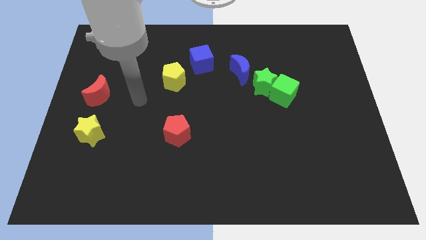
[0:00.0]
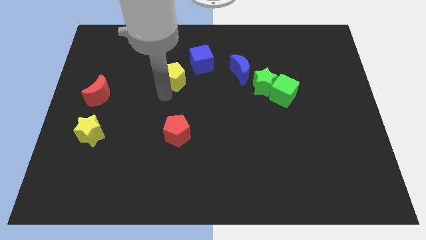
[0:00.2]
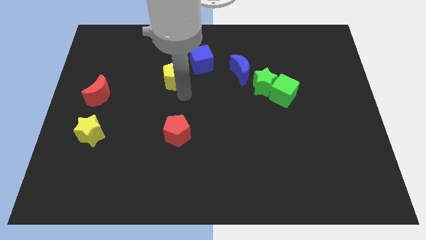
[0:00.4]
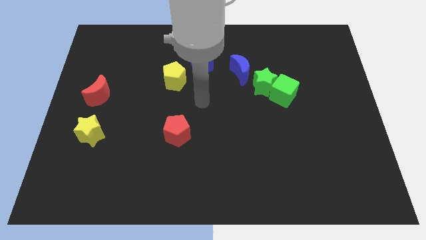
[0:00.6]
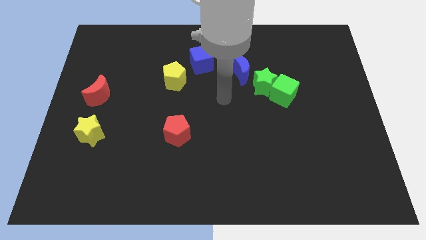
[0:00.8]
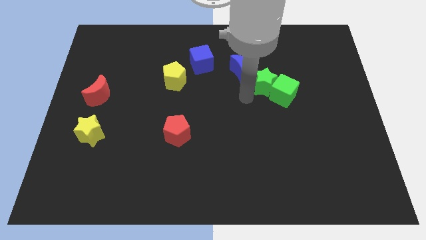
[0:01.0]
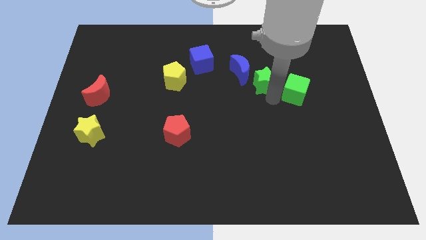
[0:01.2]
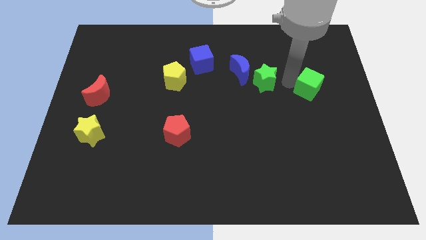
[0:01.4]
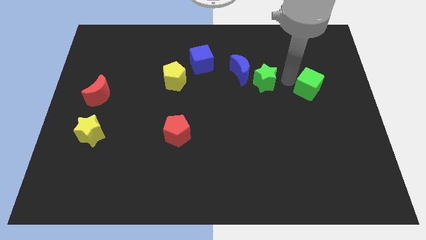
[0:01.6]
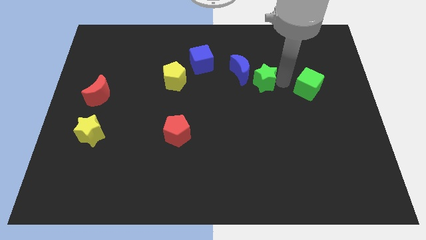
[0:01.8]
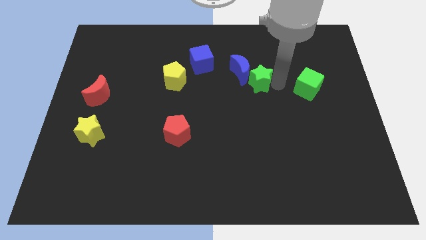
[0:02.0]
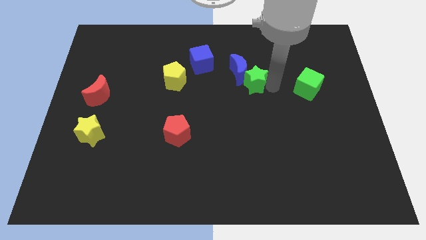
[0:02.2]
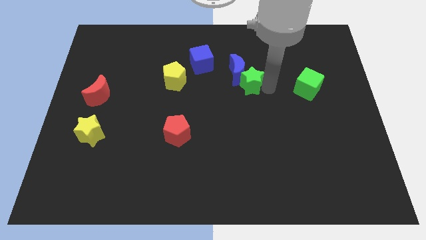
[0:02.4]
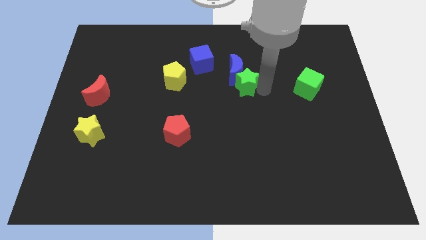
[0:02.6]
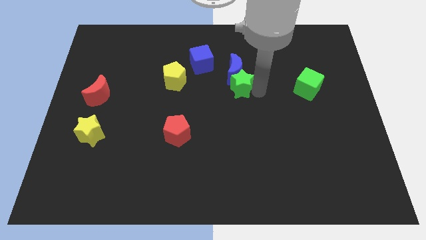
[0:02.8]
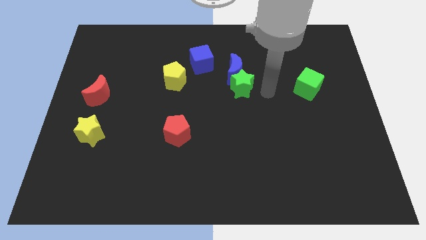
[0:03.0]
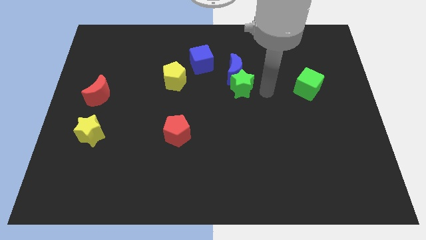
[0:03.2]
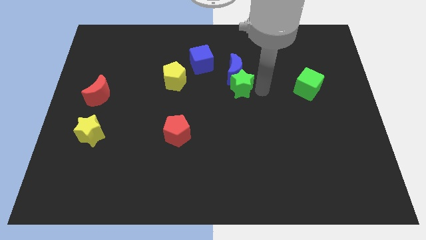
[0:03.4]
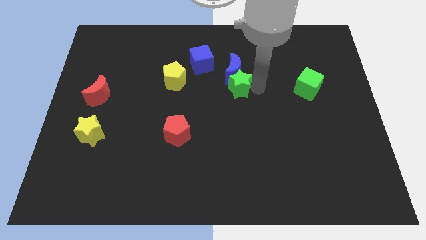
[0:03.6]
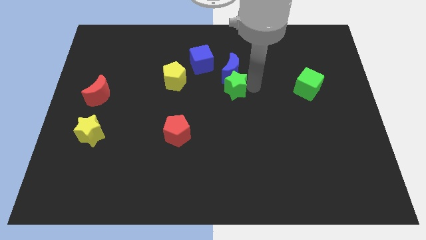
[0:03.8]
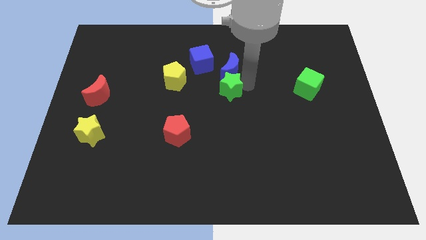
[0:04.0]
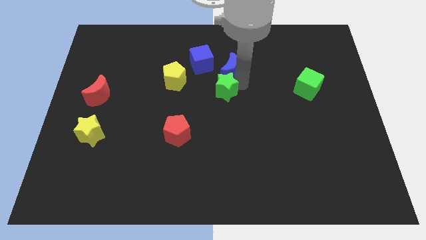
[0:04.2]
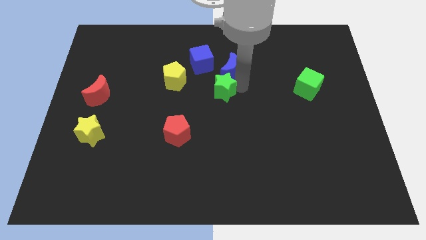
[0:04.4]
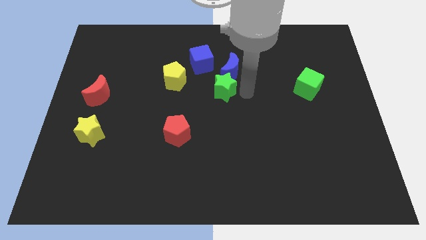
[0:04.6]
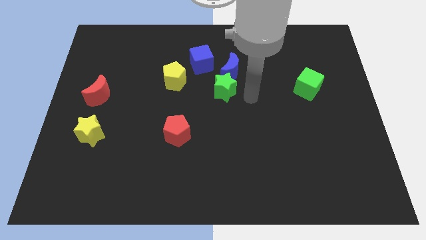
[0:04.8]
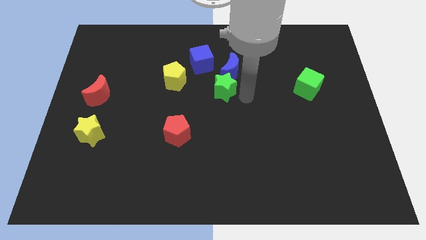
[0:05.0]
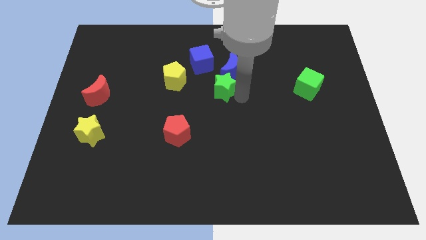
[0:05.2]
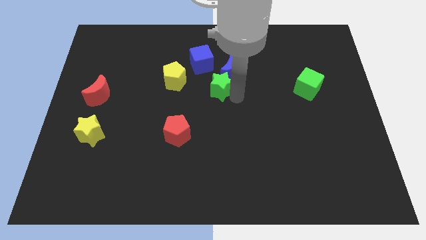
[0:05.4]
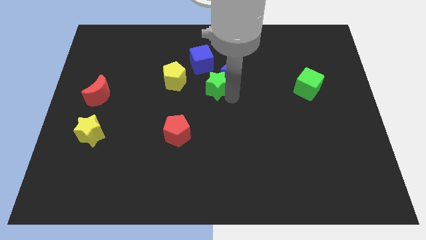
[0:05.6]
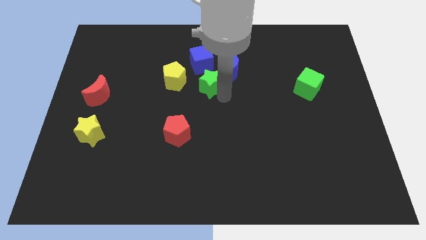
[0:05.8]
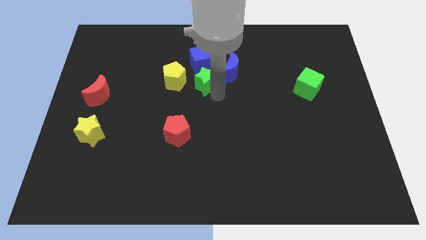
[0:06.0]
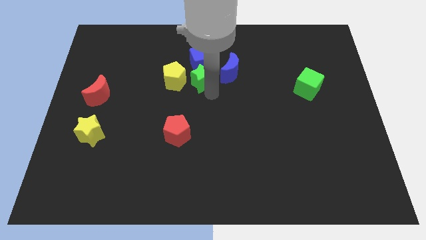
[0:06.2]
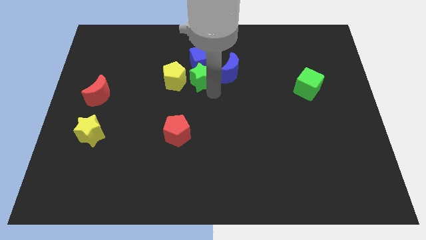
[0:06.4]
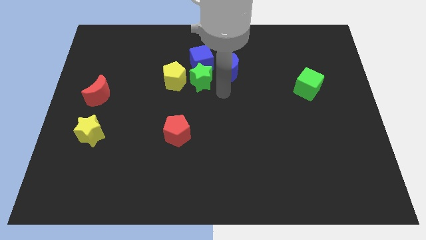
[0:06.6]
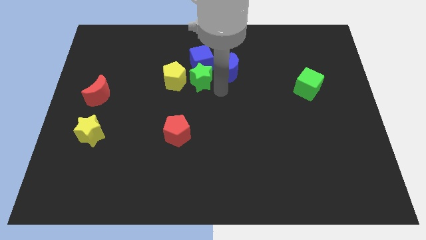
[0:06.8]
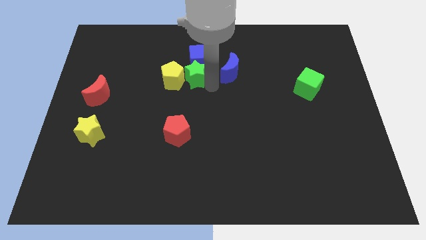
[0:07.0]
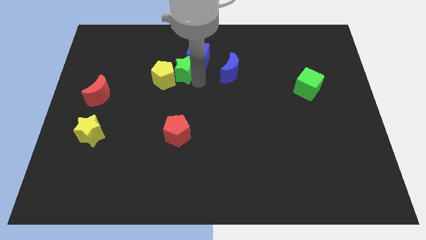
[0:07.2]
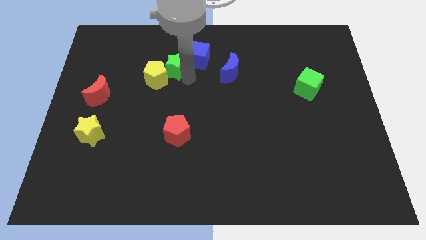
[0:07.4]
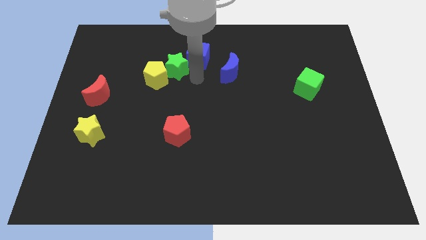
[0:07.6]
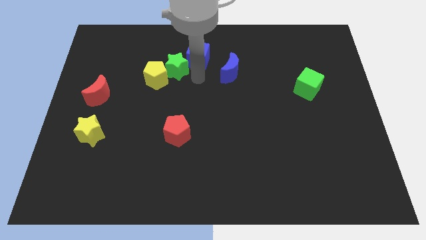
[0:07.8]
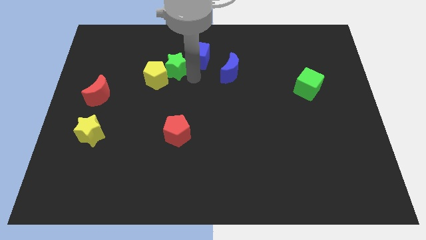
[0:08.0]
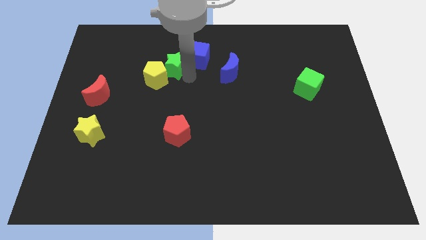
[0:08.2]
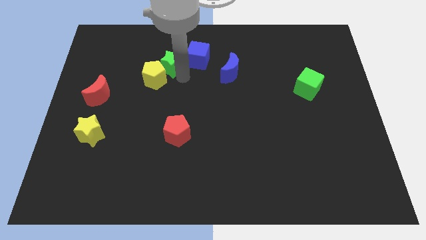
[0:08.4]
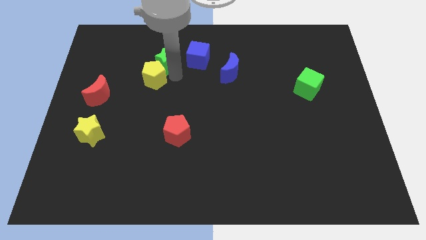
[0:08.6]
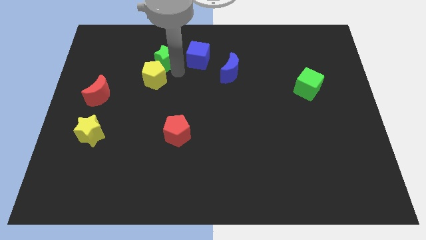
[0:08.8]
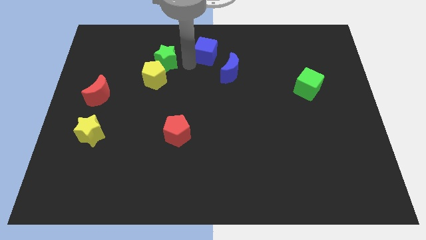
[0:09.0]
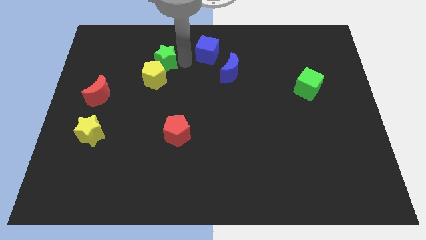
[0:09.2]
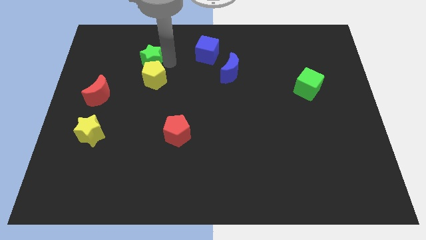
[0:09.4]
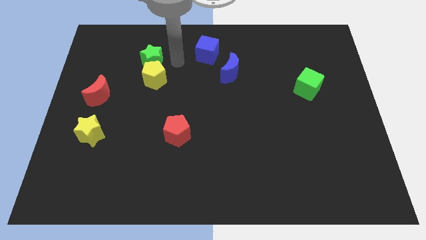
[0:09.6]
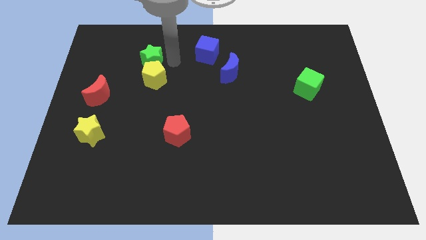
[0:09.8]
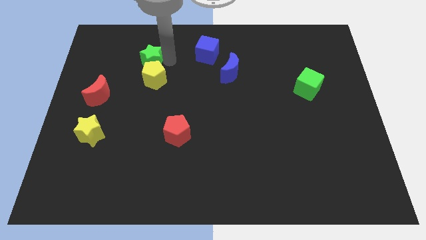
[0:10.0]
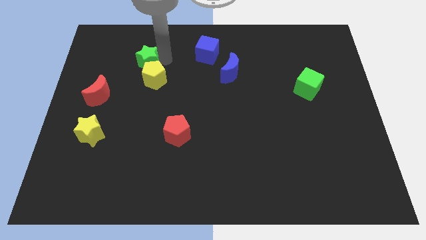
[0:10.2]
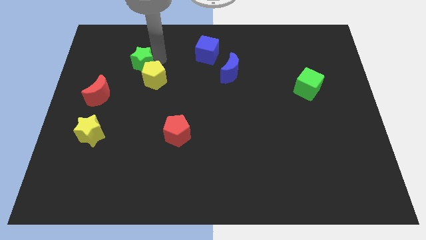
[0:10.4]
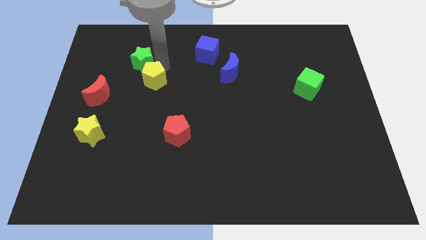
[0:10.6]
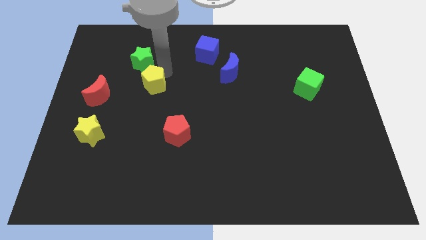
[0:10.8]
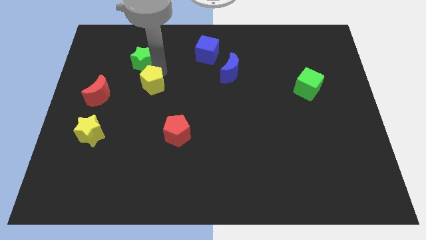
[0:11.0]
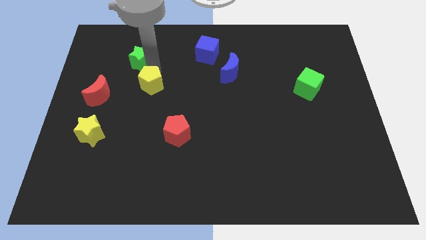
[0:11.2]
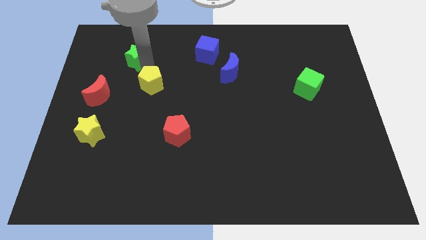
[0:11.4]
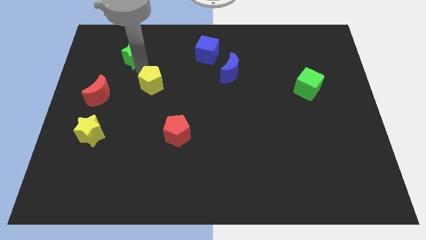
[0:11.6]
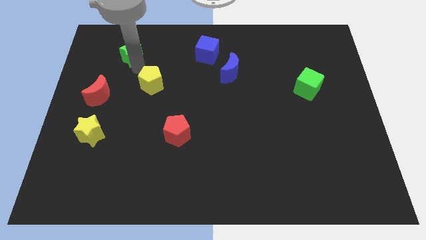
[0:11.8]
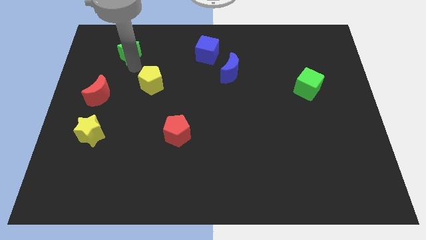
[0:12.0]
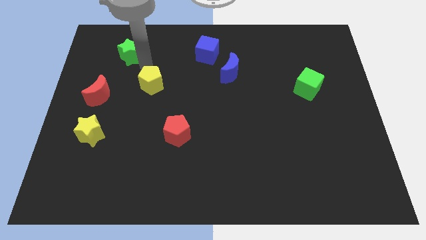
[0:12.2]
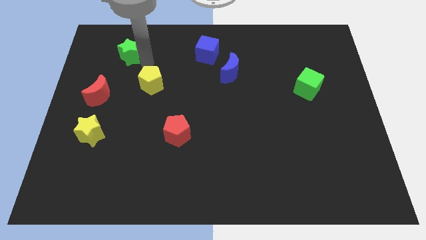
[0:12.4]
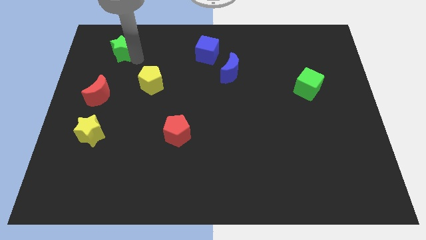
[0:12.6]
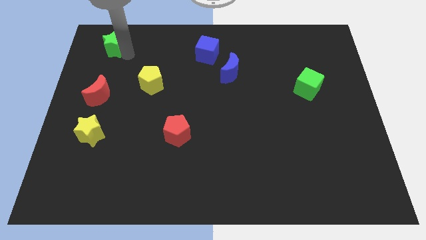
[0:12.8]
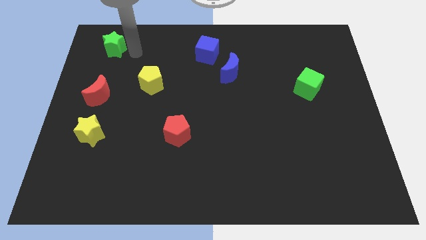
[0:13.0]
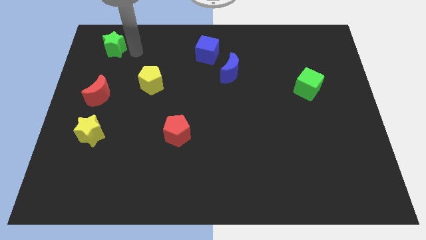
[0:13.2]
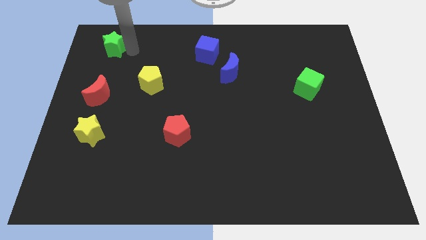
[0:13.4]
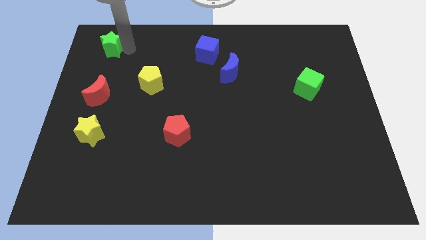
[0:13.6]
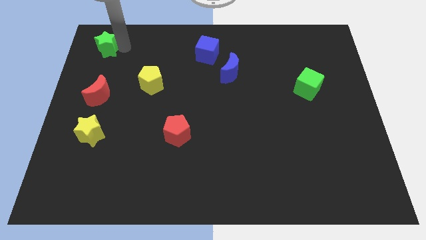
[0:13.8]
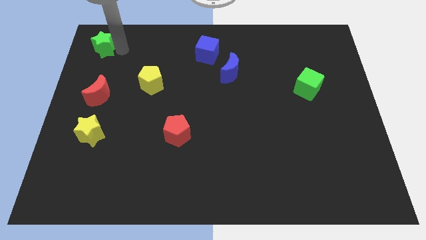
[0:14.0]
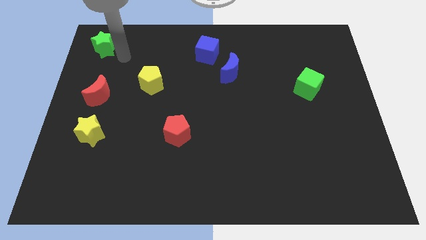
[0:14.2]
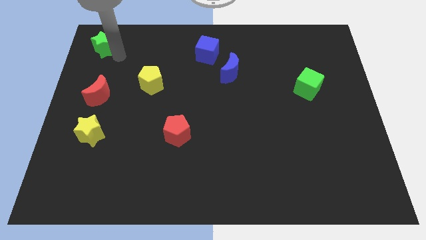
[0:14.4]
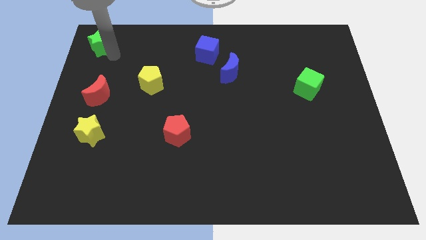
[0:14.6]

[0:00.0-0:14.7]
move the green star to the upper left corner
